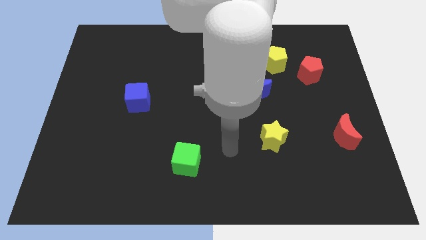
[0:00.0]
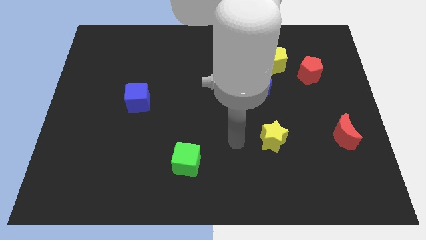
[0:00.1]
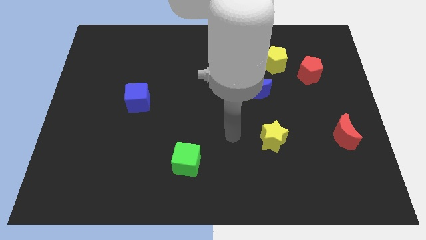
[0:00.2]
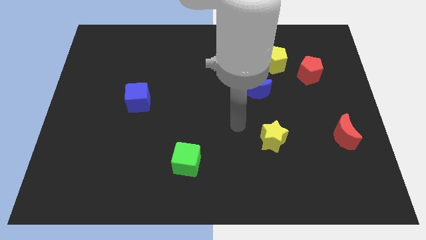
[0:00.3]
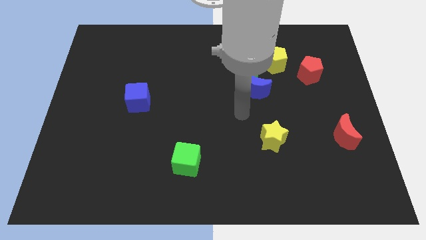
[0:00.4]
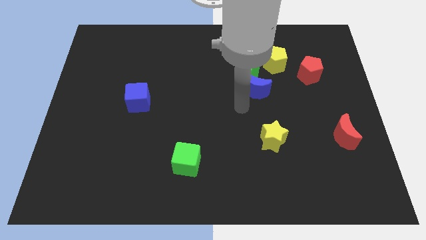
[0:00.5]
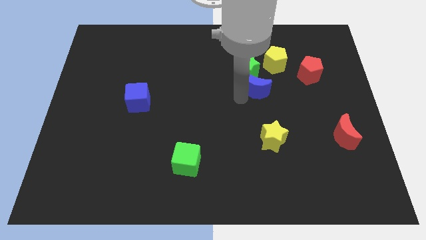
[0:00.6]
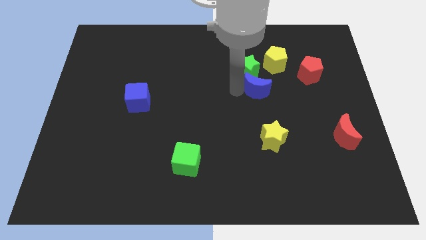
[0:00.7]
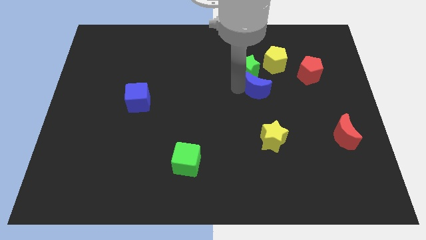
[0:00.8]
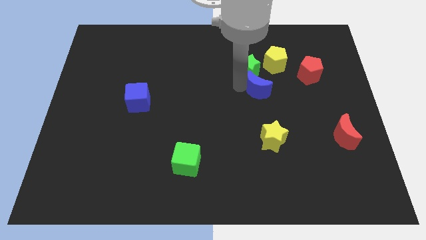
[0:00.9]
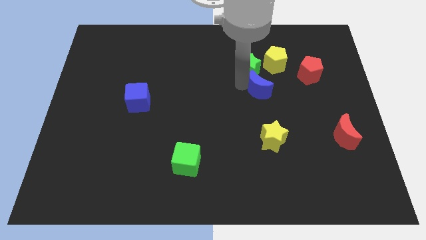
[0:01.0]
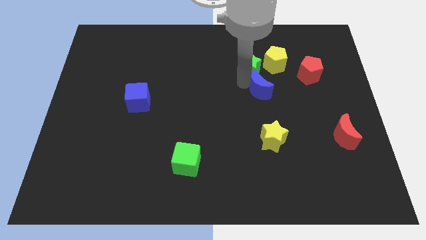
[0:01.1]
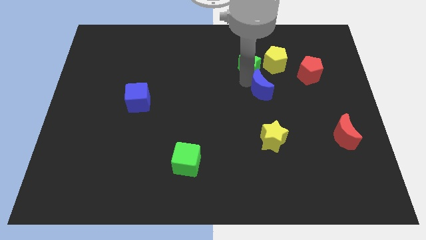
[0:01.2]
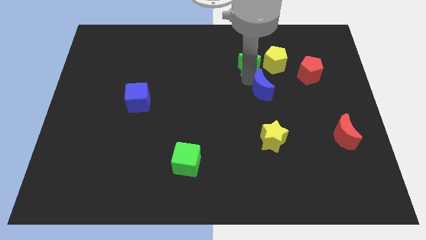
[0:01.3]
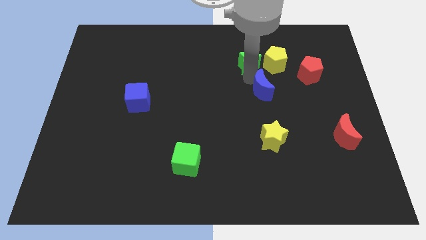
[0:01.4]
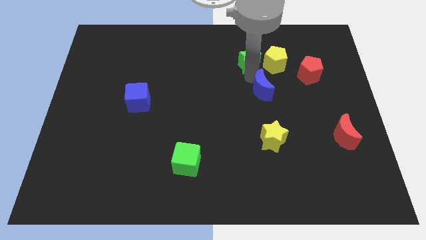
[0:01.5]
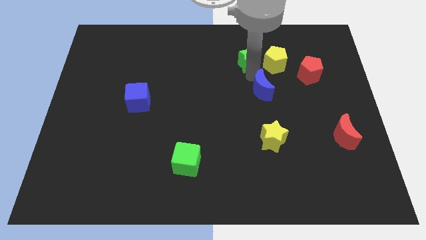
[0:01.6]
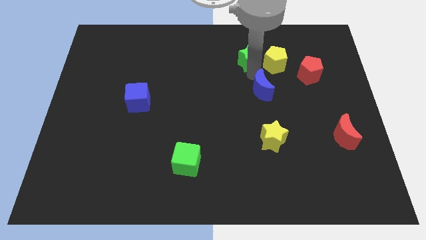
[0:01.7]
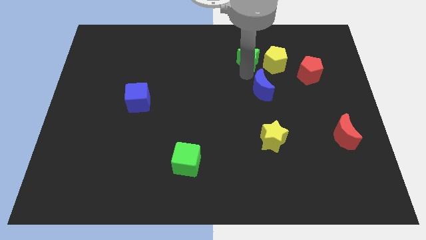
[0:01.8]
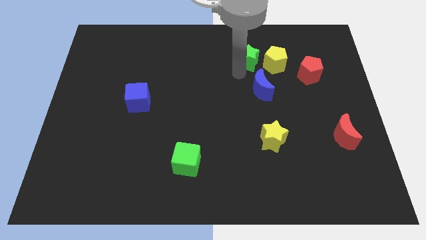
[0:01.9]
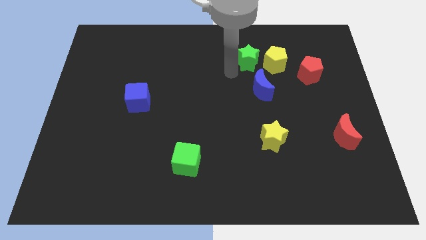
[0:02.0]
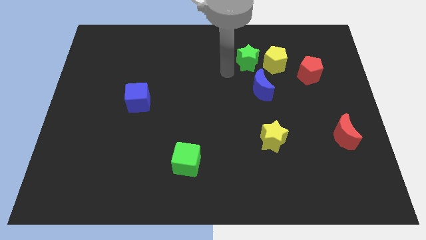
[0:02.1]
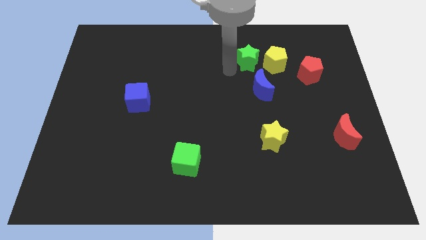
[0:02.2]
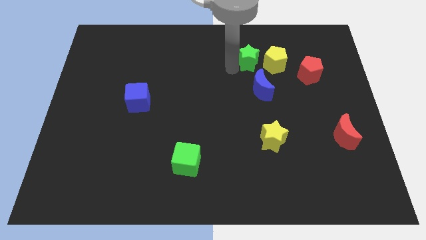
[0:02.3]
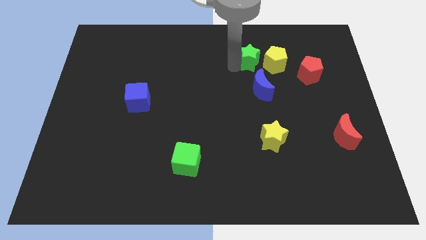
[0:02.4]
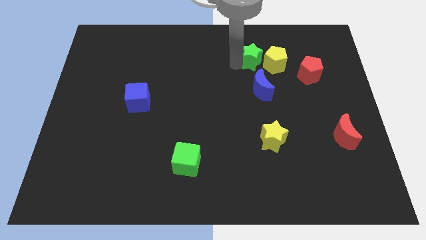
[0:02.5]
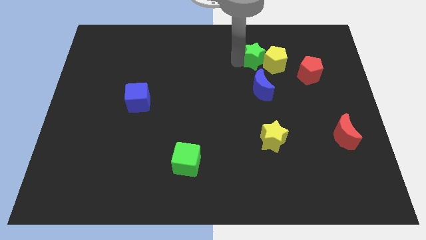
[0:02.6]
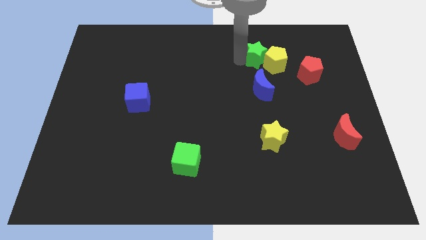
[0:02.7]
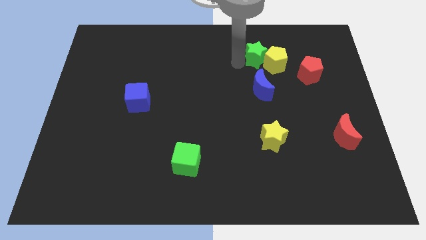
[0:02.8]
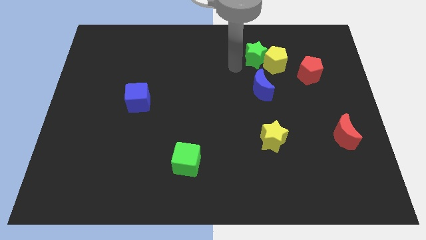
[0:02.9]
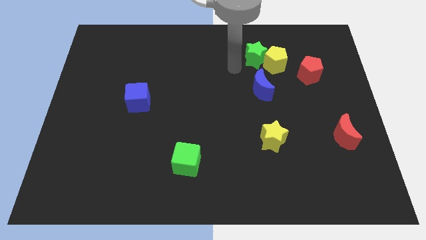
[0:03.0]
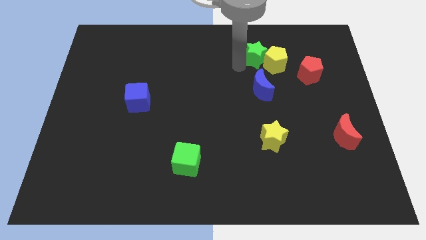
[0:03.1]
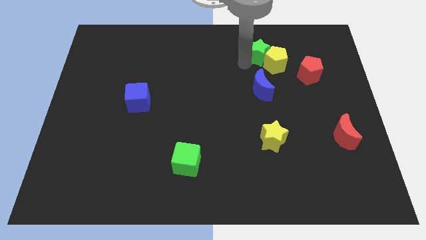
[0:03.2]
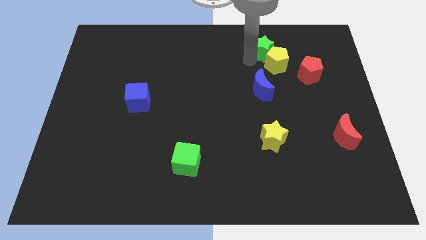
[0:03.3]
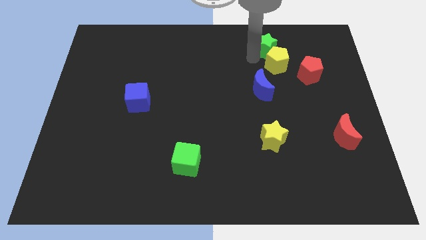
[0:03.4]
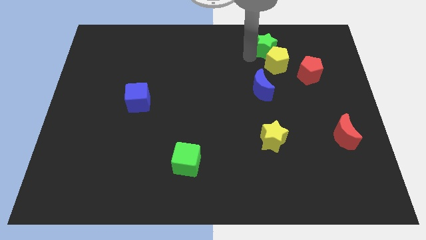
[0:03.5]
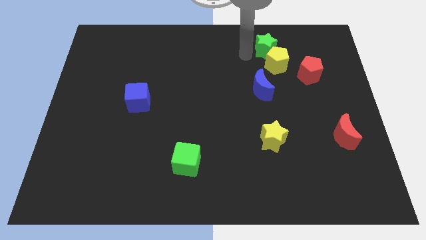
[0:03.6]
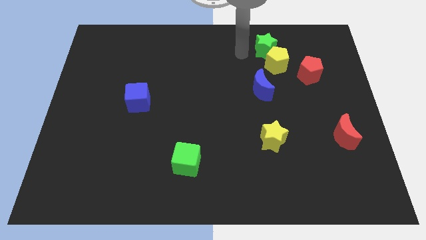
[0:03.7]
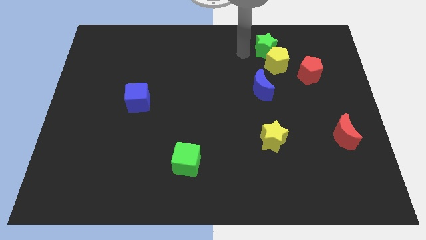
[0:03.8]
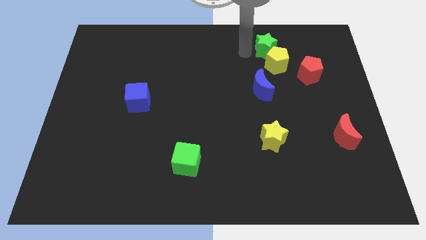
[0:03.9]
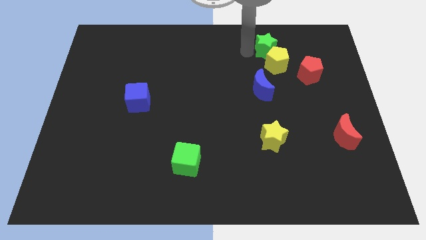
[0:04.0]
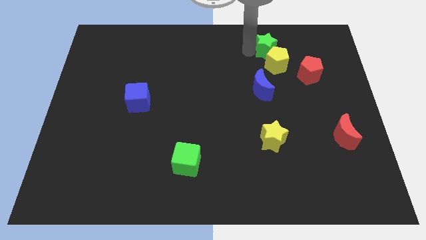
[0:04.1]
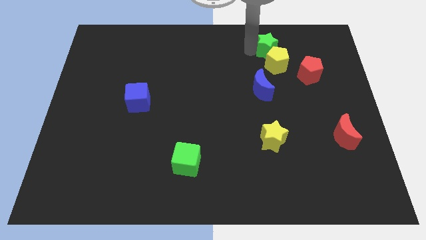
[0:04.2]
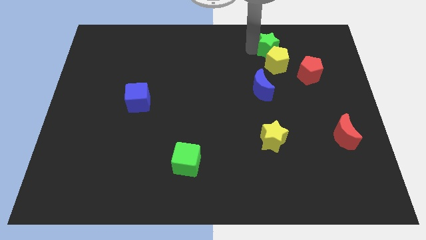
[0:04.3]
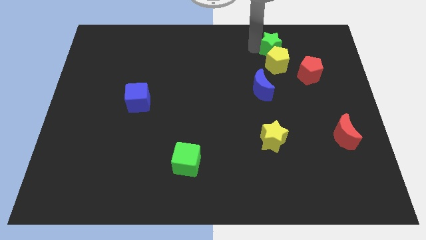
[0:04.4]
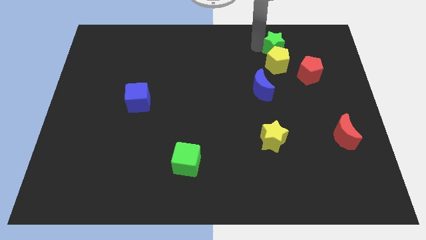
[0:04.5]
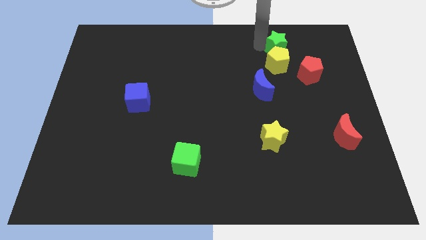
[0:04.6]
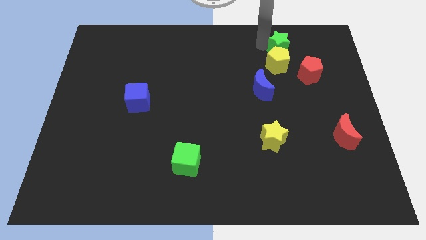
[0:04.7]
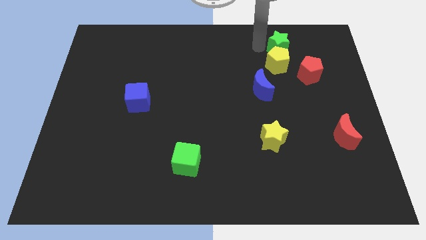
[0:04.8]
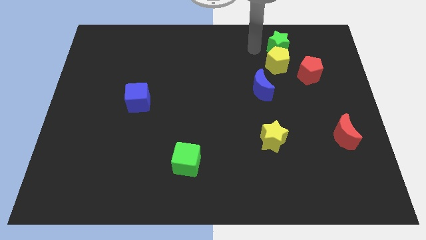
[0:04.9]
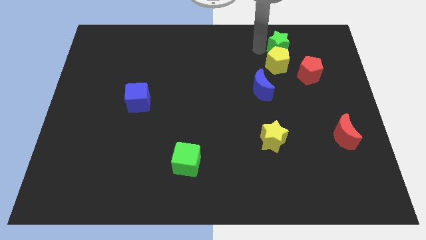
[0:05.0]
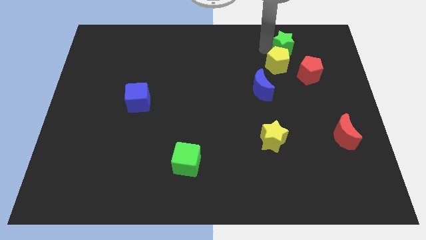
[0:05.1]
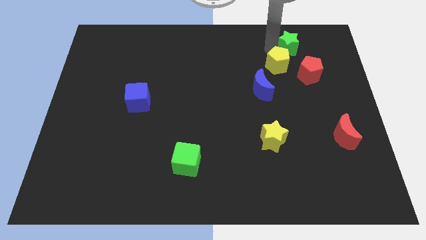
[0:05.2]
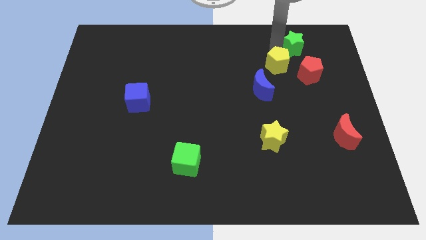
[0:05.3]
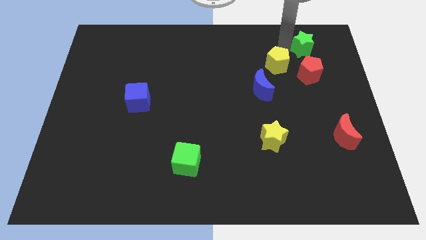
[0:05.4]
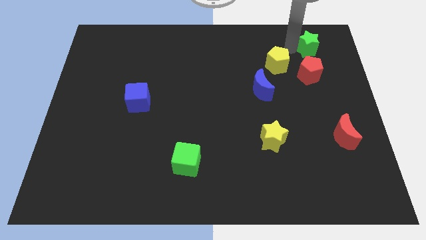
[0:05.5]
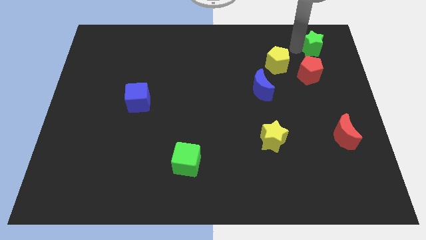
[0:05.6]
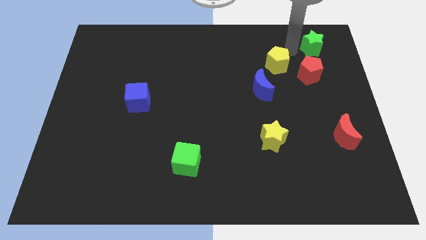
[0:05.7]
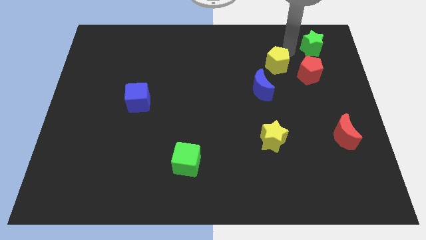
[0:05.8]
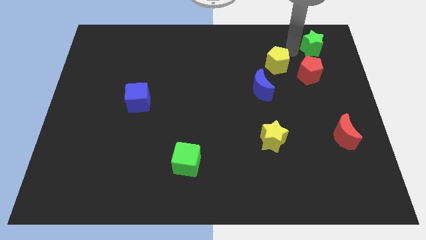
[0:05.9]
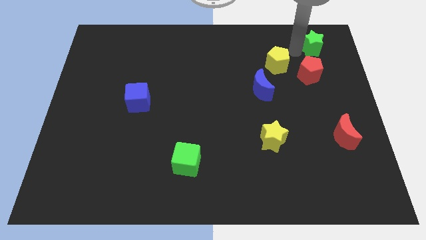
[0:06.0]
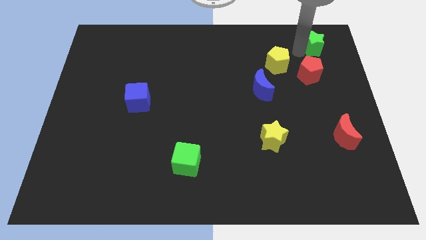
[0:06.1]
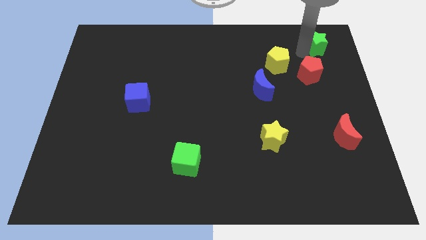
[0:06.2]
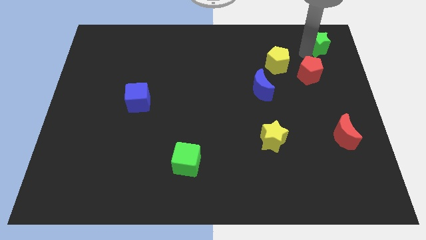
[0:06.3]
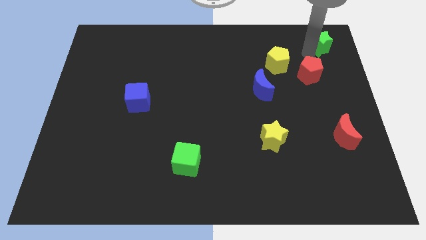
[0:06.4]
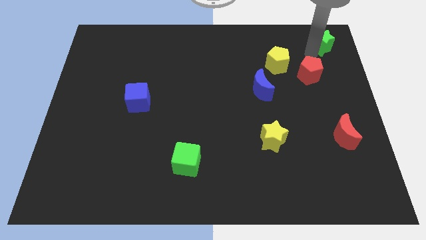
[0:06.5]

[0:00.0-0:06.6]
push the green star to the top right

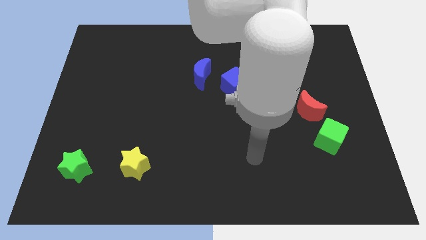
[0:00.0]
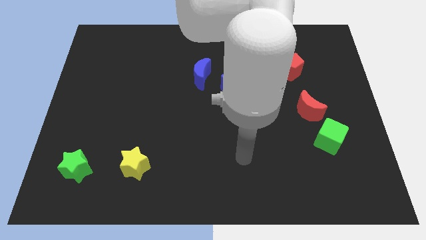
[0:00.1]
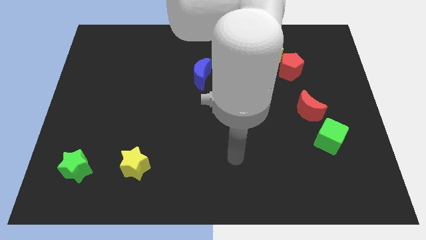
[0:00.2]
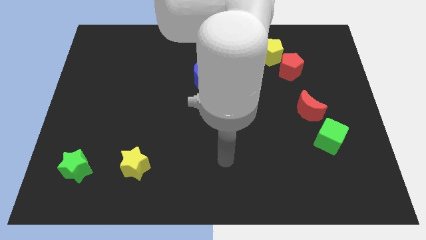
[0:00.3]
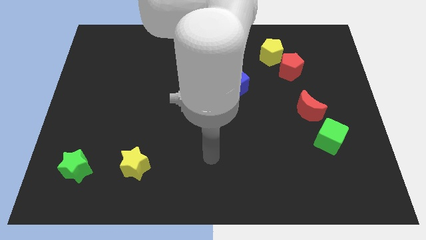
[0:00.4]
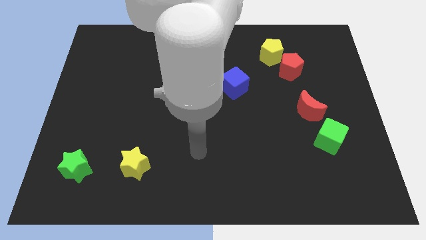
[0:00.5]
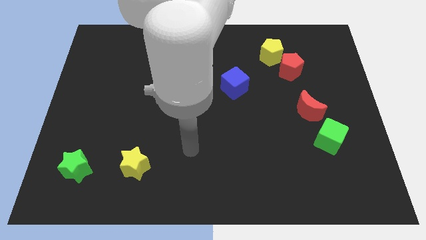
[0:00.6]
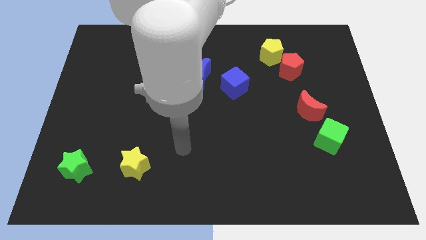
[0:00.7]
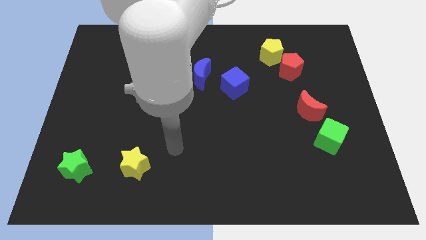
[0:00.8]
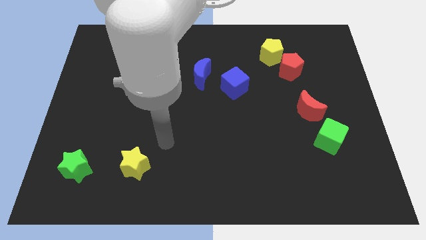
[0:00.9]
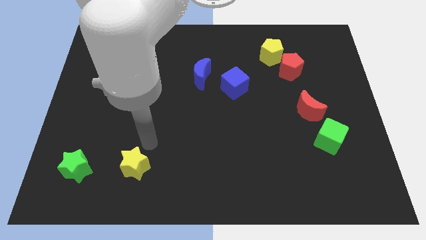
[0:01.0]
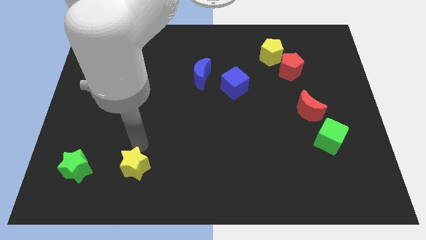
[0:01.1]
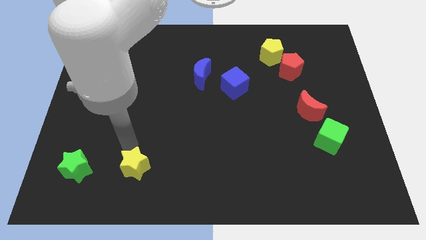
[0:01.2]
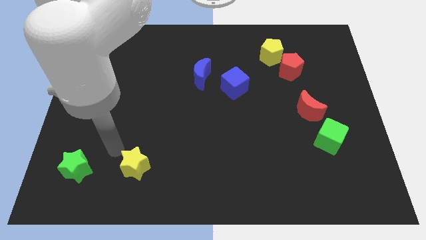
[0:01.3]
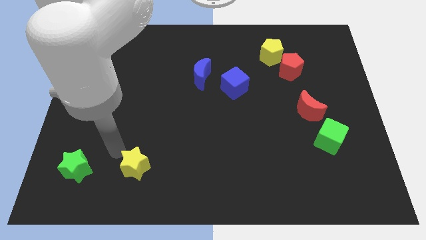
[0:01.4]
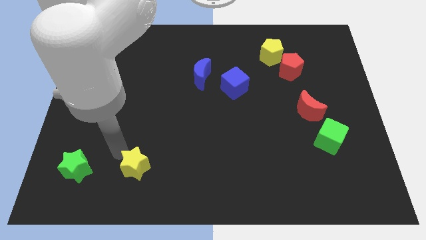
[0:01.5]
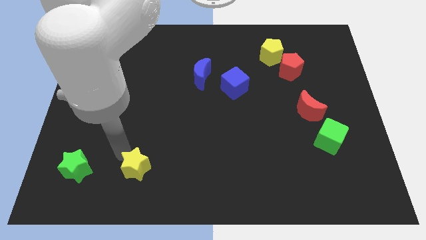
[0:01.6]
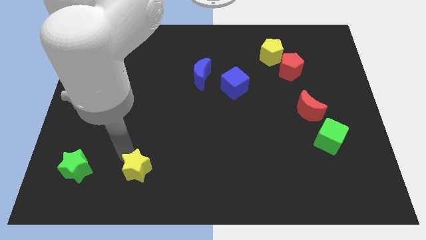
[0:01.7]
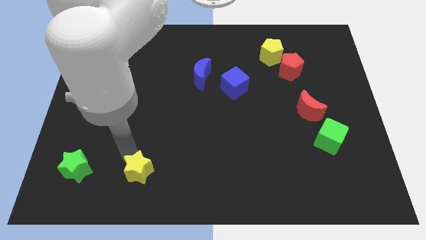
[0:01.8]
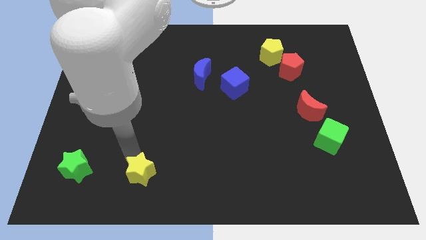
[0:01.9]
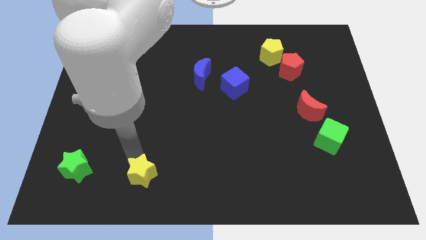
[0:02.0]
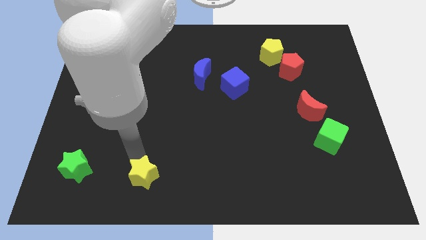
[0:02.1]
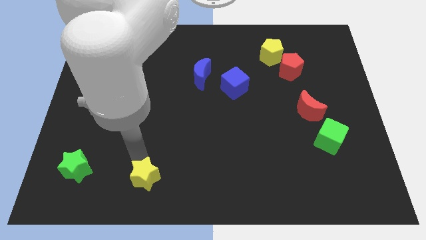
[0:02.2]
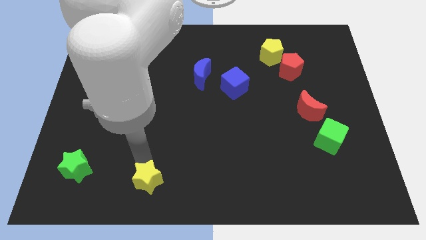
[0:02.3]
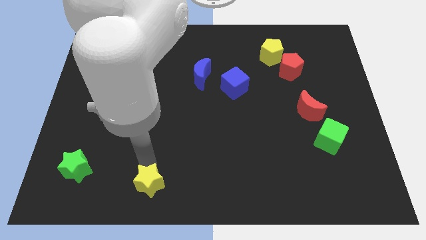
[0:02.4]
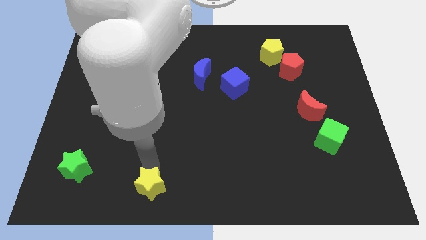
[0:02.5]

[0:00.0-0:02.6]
move the yellow star to the bottom
